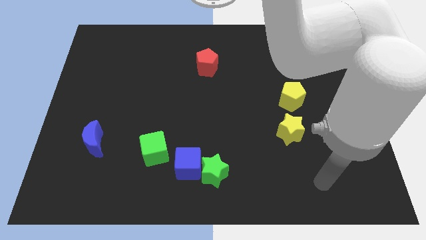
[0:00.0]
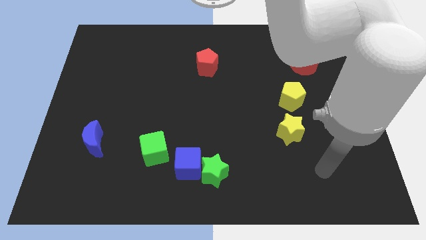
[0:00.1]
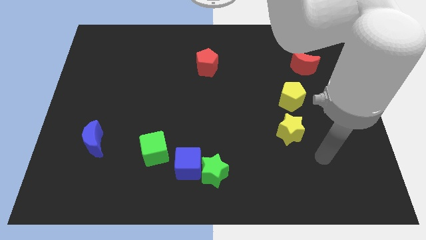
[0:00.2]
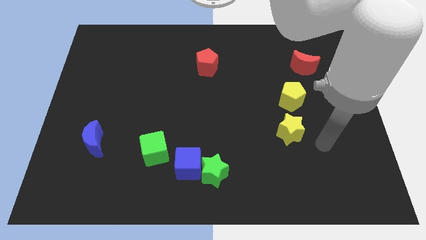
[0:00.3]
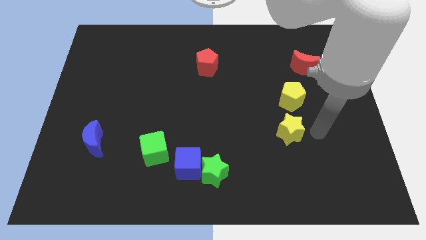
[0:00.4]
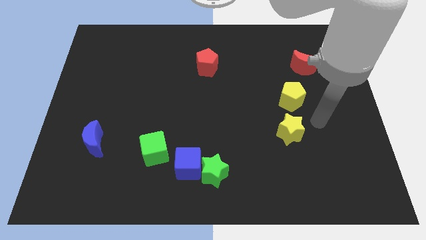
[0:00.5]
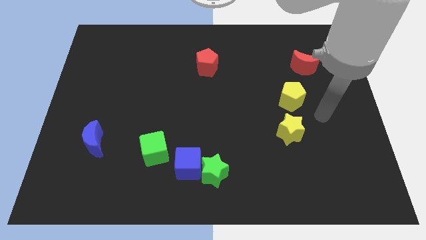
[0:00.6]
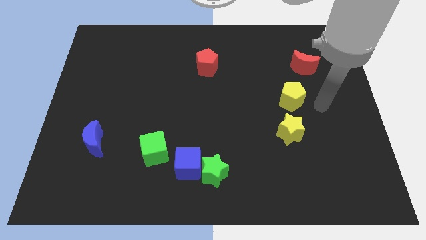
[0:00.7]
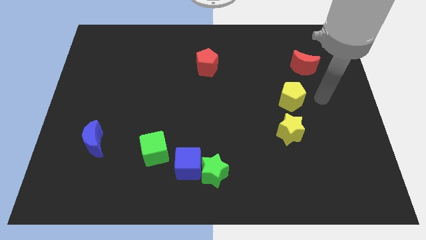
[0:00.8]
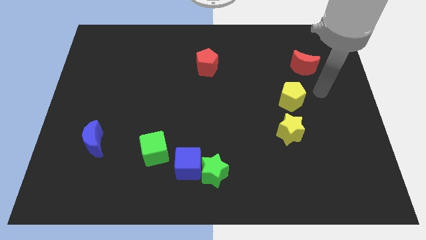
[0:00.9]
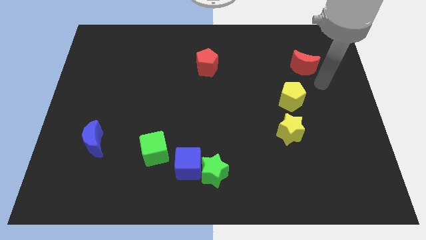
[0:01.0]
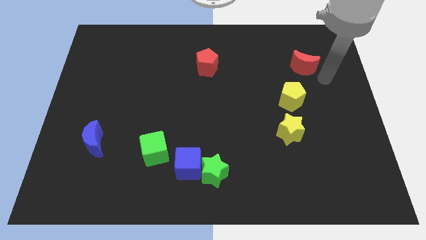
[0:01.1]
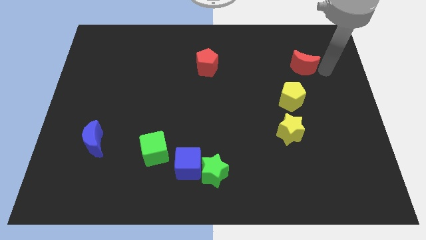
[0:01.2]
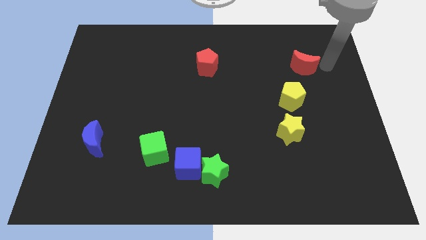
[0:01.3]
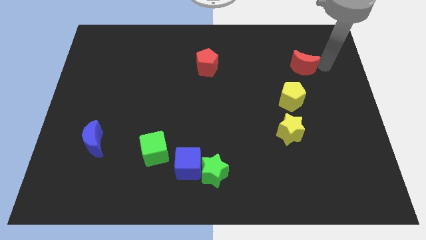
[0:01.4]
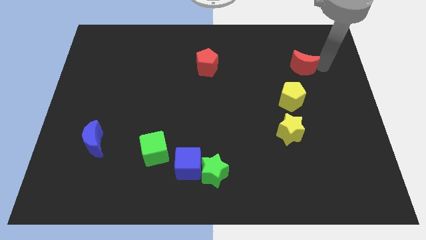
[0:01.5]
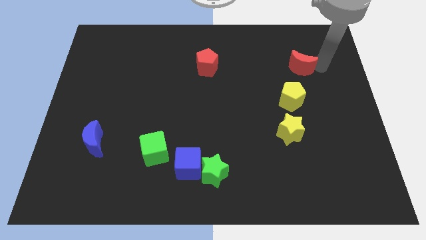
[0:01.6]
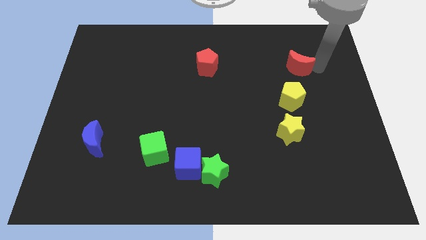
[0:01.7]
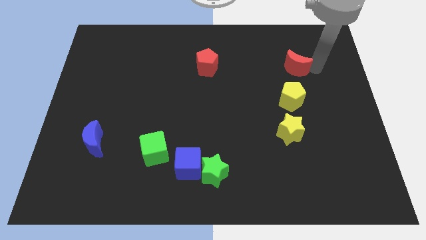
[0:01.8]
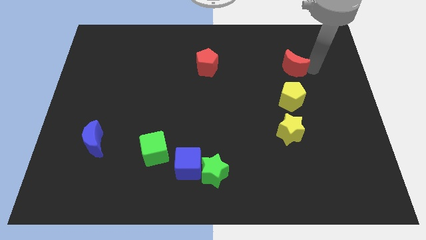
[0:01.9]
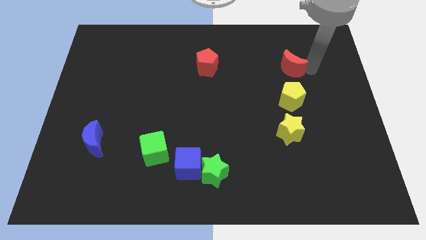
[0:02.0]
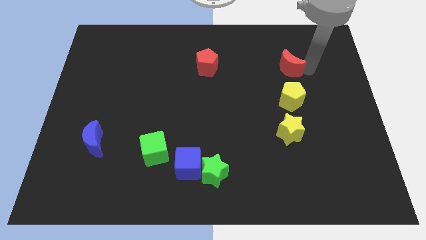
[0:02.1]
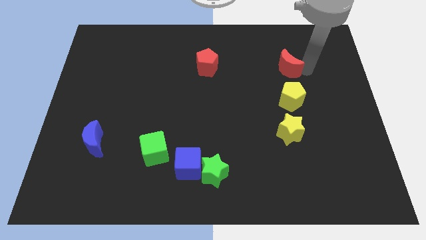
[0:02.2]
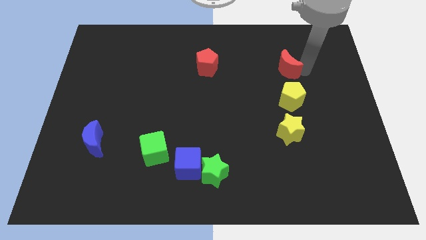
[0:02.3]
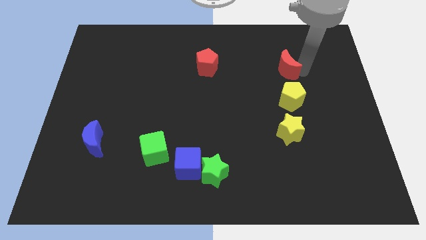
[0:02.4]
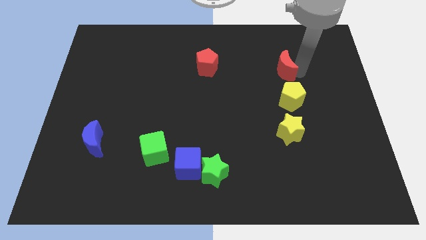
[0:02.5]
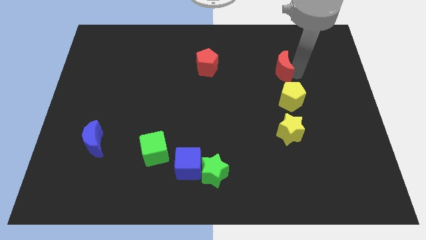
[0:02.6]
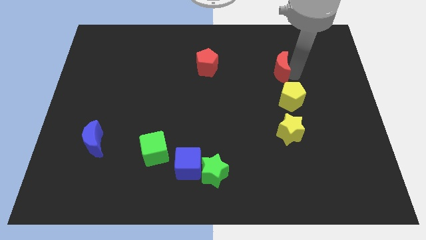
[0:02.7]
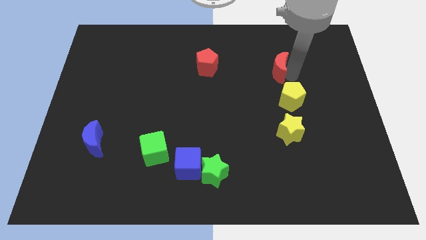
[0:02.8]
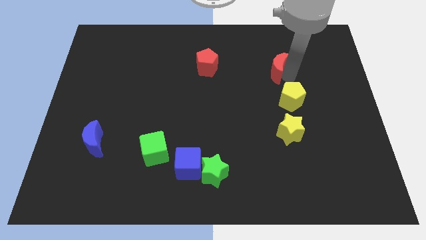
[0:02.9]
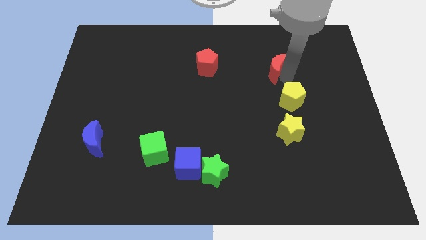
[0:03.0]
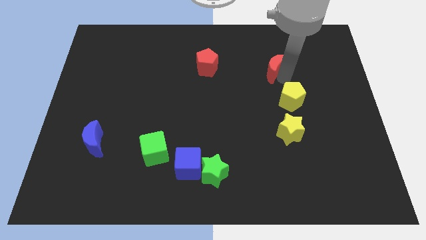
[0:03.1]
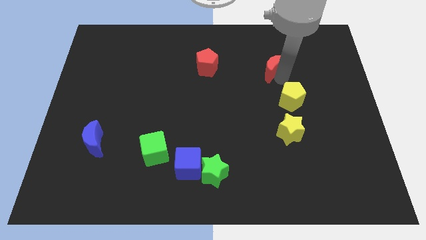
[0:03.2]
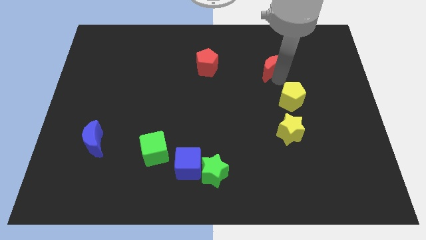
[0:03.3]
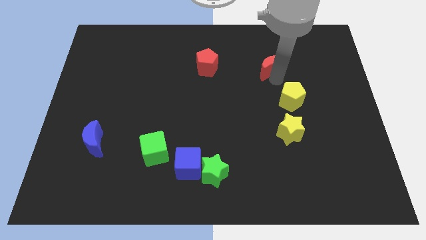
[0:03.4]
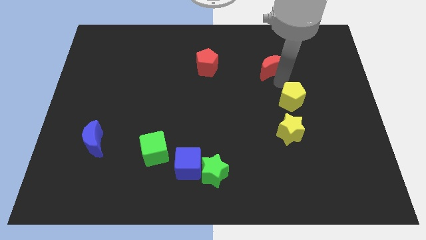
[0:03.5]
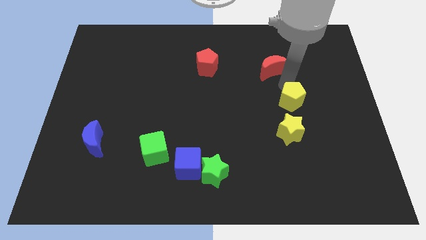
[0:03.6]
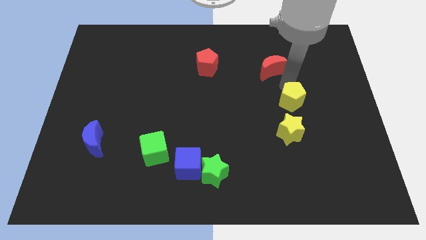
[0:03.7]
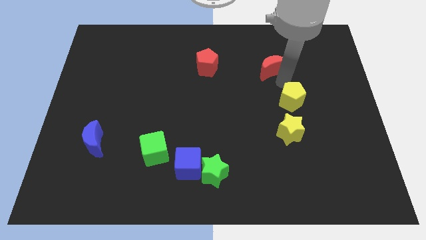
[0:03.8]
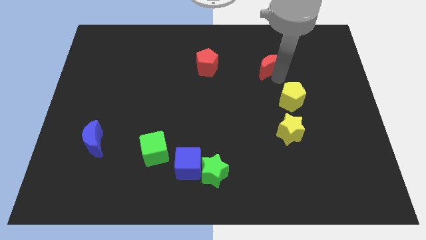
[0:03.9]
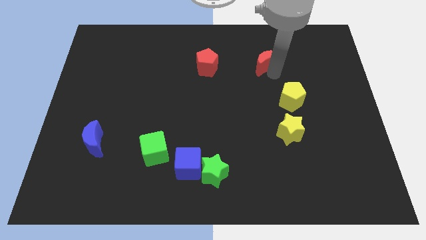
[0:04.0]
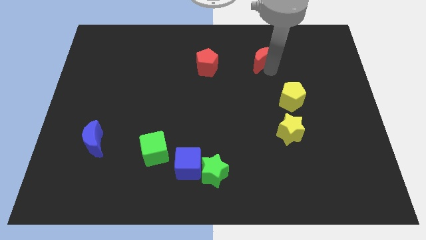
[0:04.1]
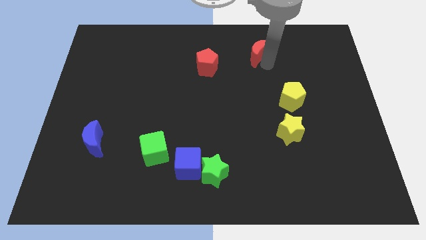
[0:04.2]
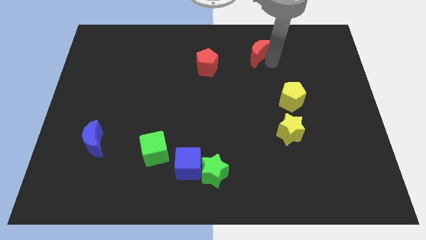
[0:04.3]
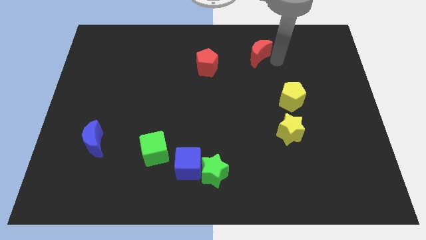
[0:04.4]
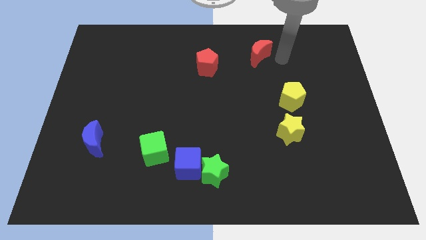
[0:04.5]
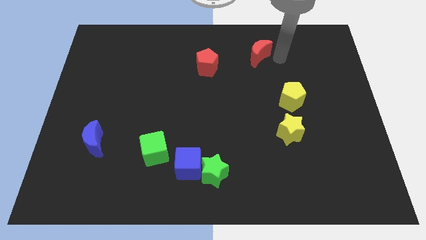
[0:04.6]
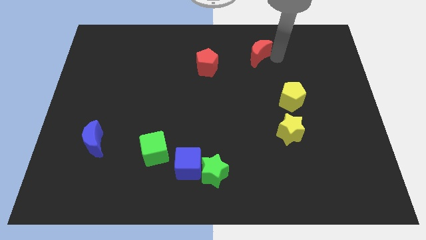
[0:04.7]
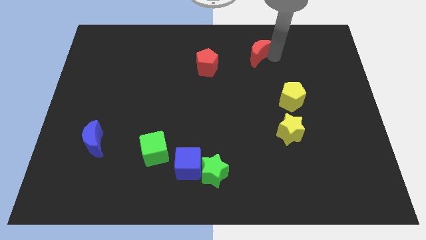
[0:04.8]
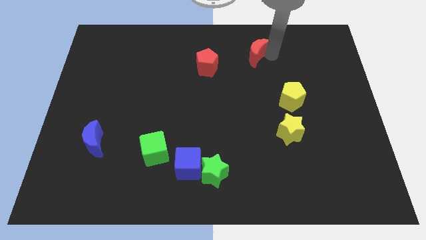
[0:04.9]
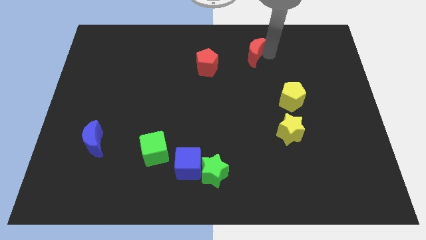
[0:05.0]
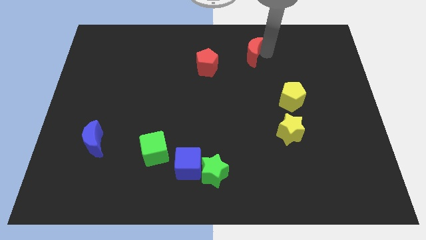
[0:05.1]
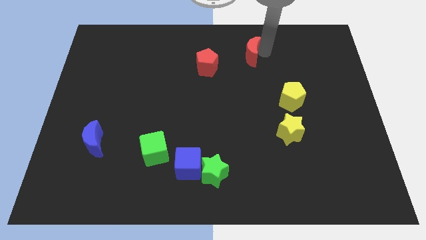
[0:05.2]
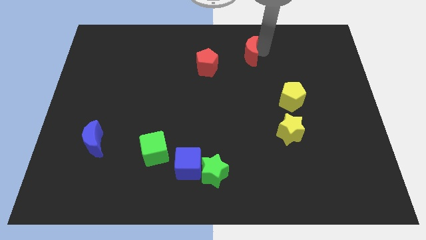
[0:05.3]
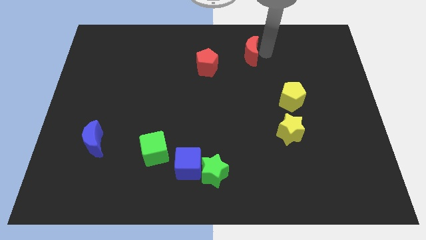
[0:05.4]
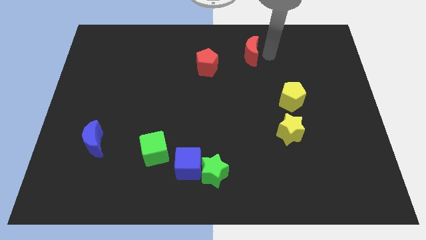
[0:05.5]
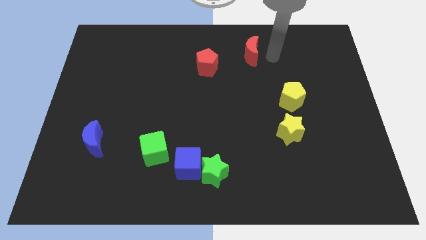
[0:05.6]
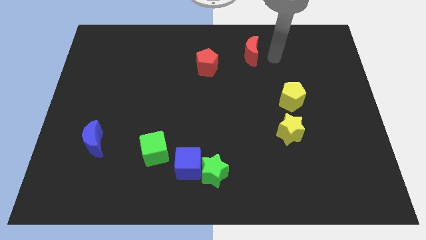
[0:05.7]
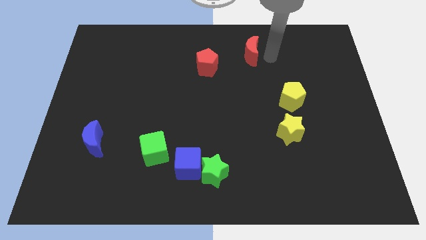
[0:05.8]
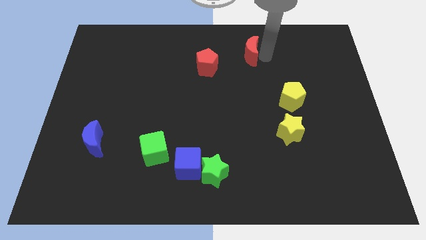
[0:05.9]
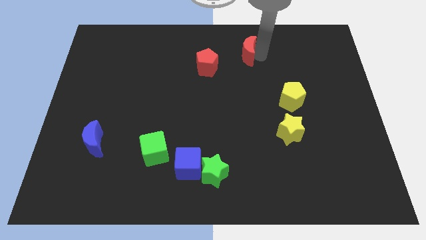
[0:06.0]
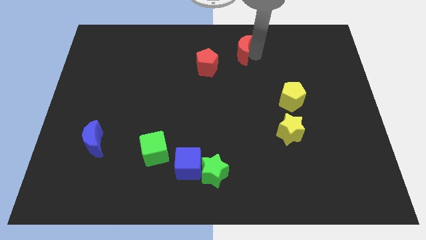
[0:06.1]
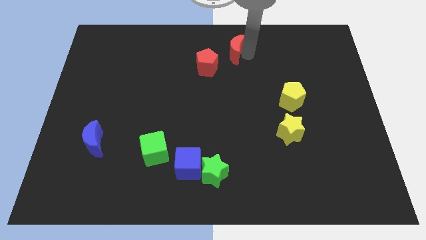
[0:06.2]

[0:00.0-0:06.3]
push the red moon to the top side
